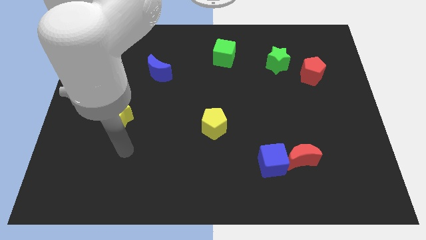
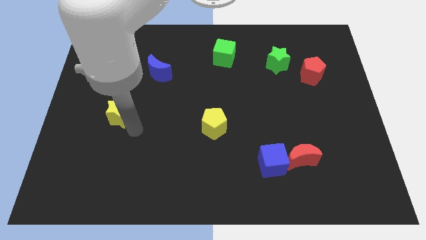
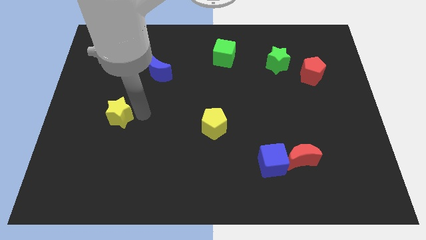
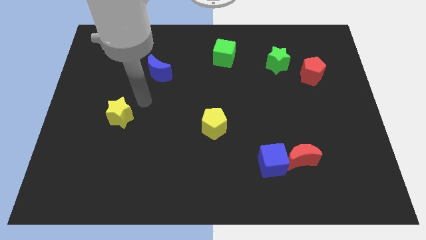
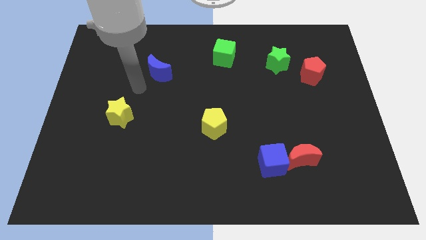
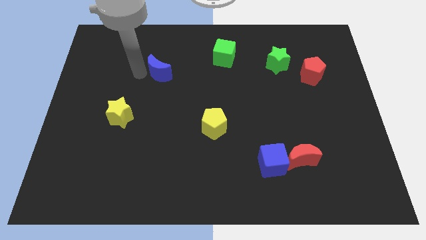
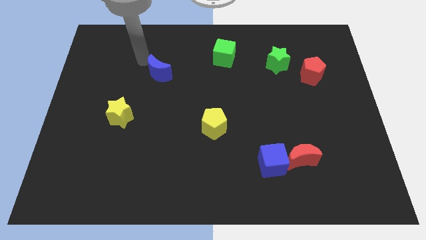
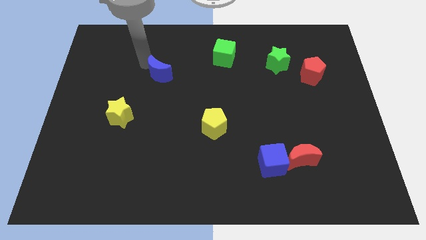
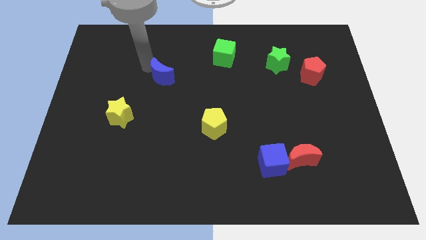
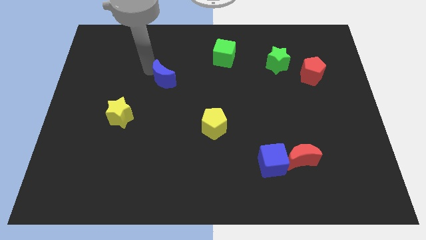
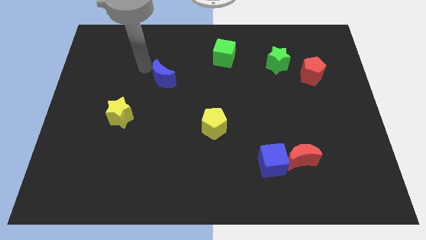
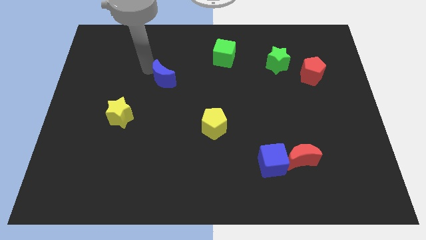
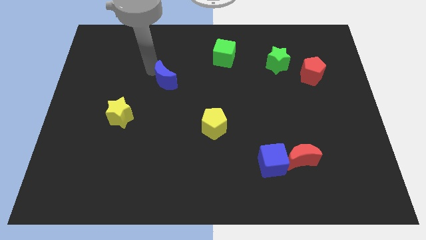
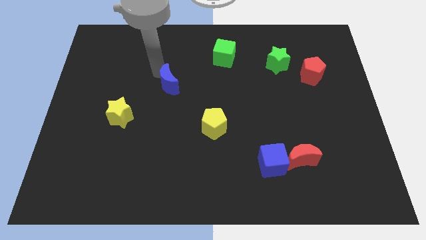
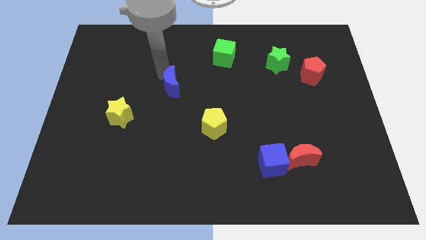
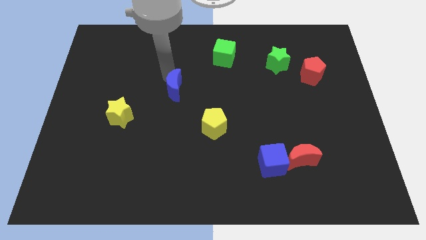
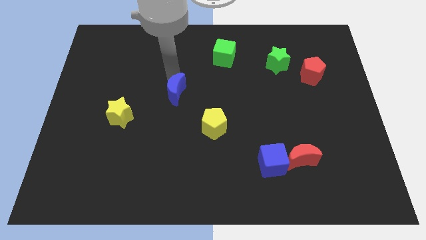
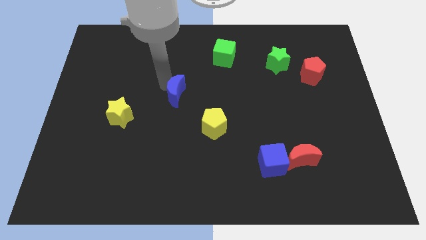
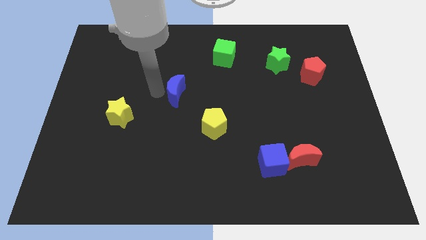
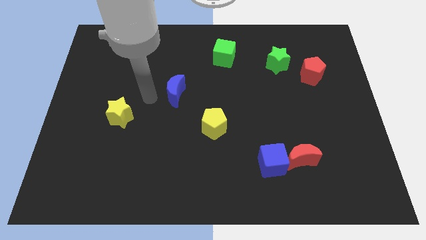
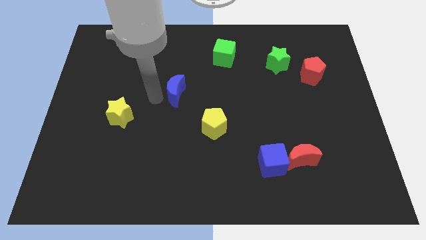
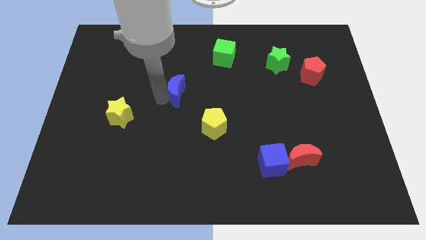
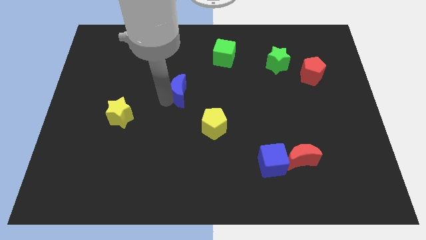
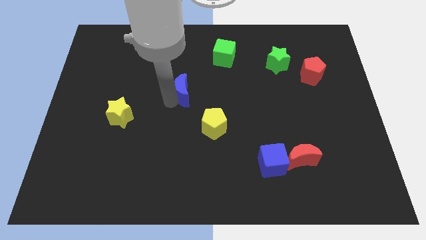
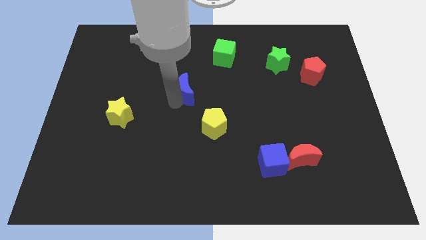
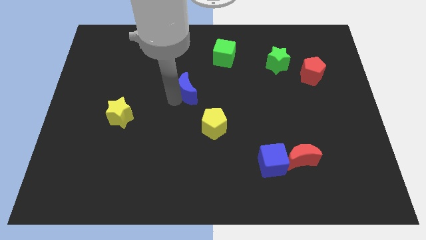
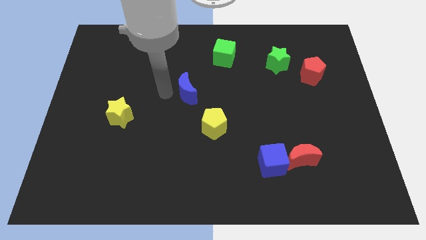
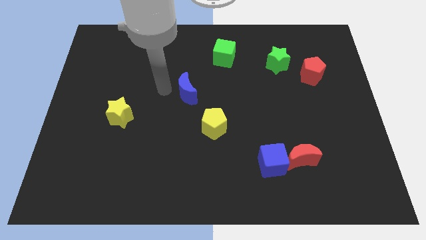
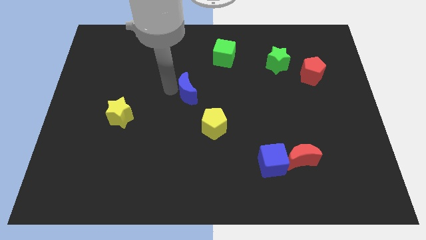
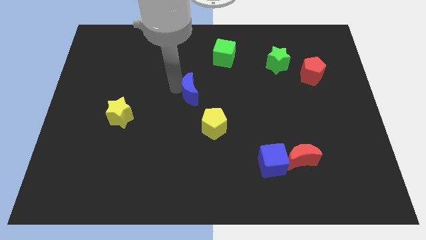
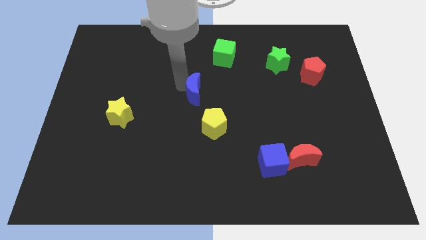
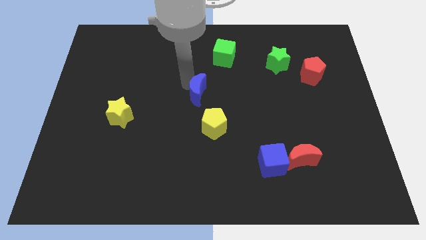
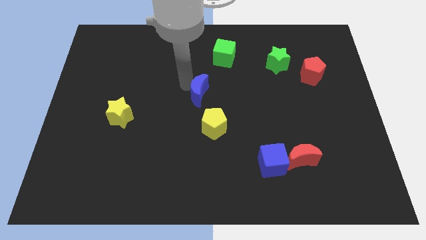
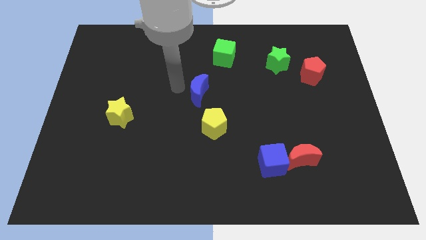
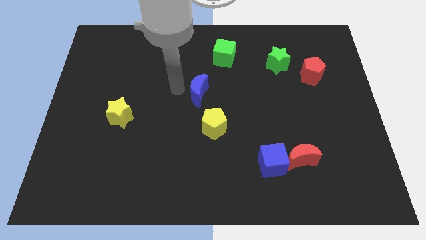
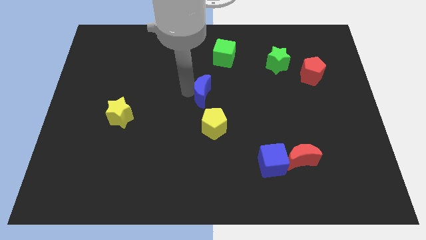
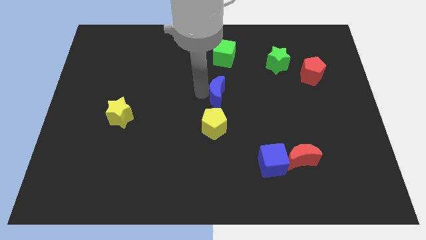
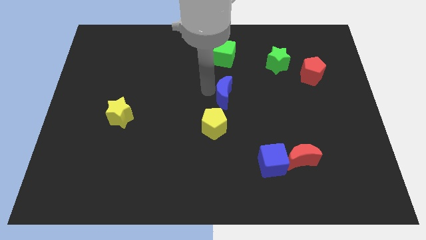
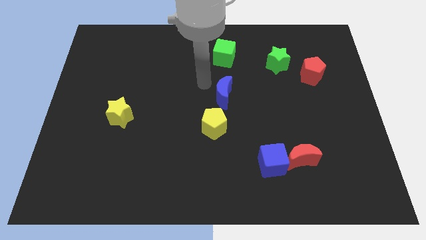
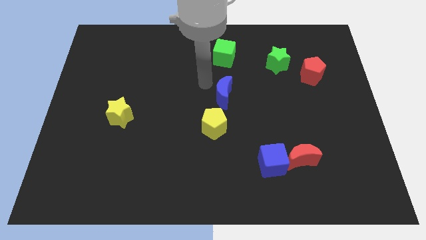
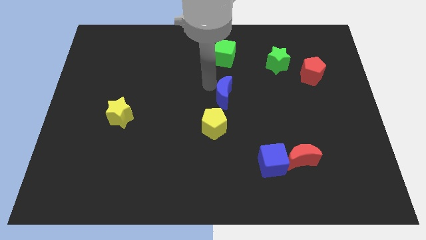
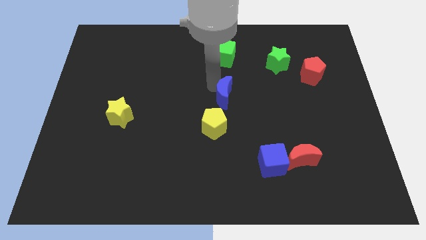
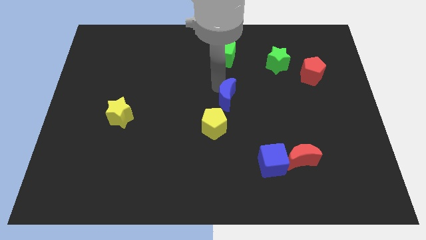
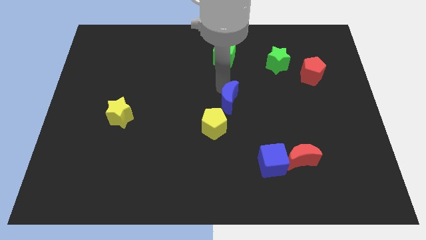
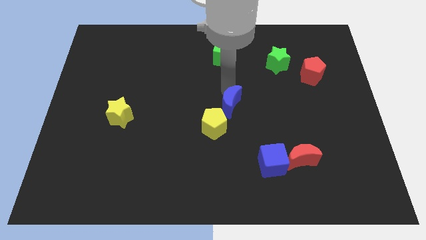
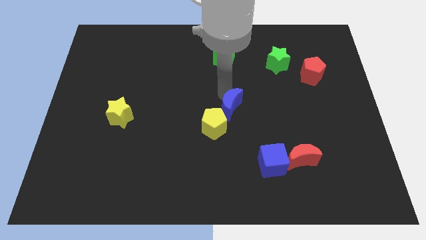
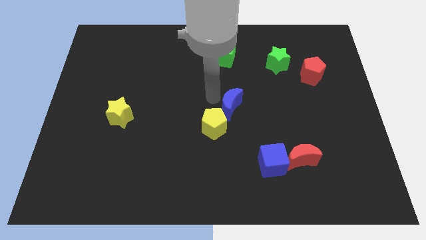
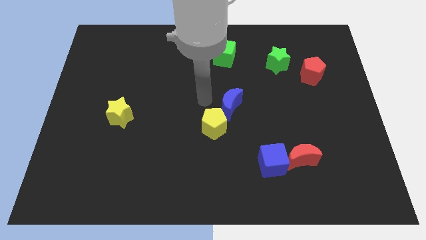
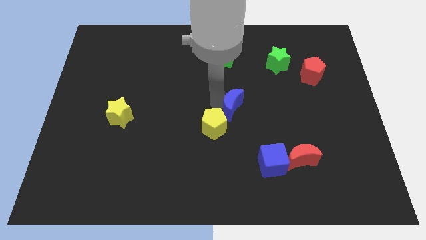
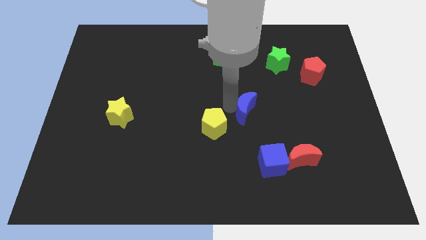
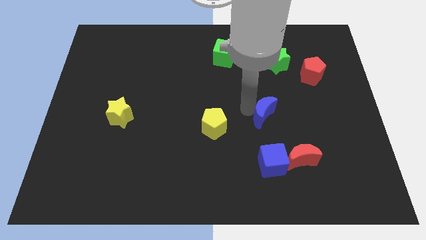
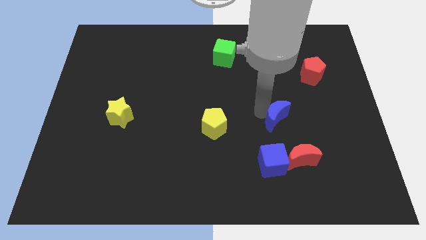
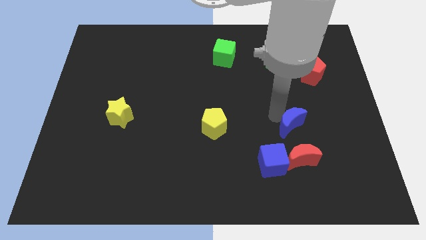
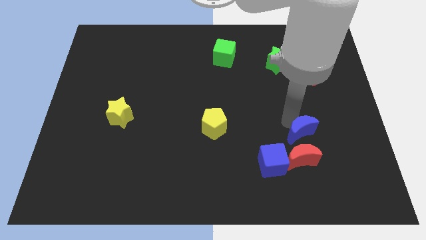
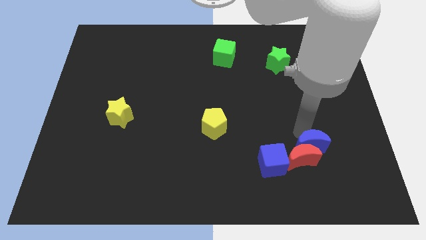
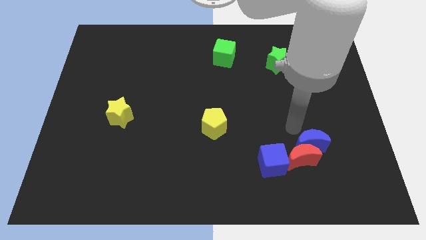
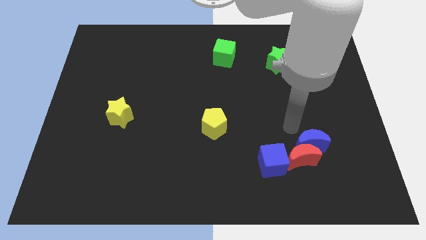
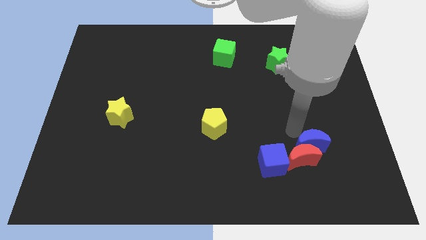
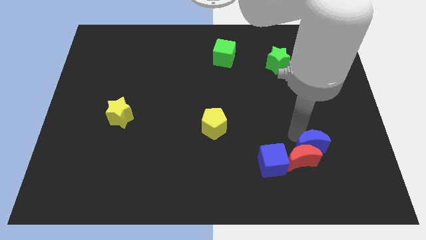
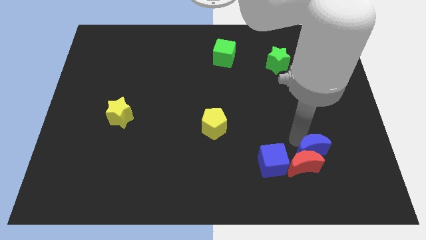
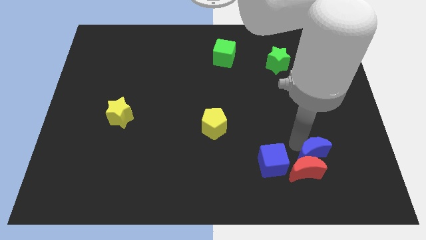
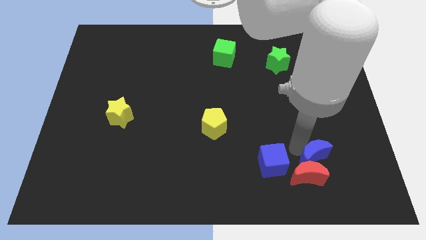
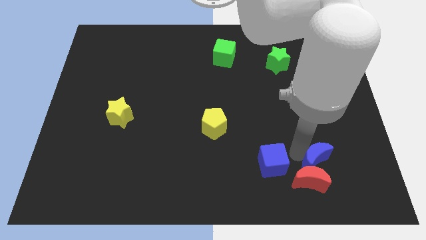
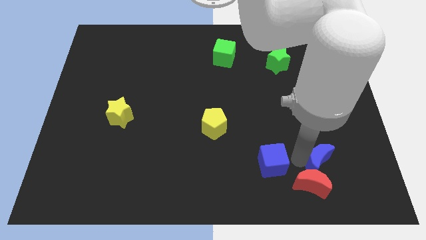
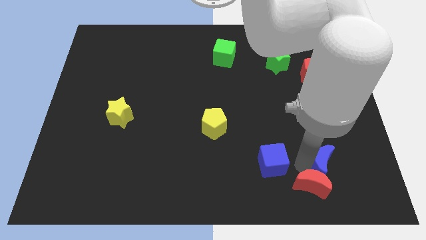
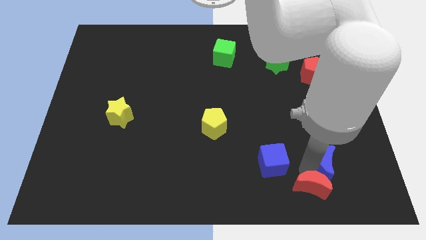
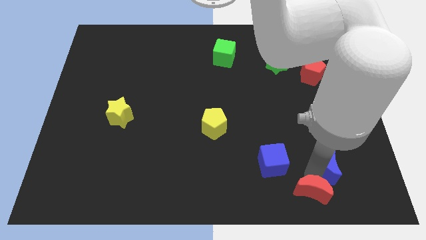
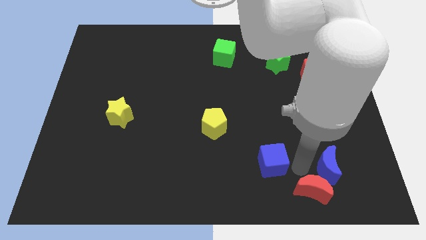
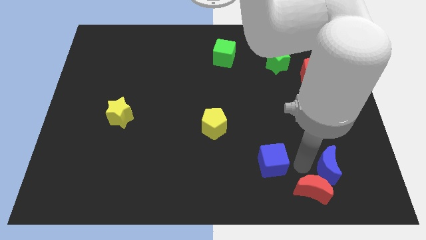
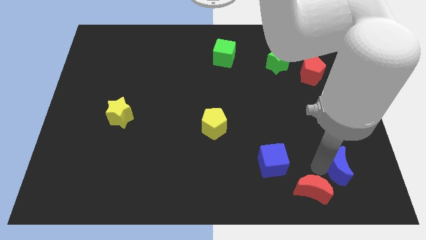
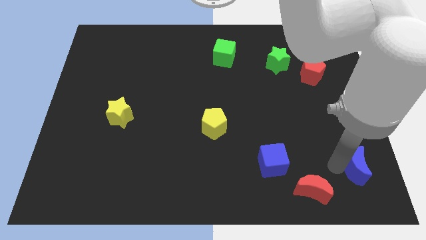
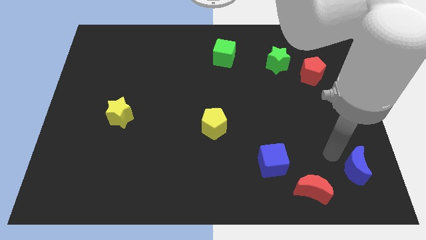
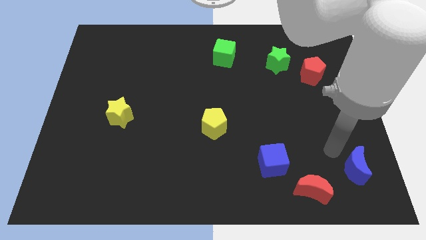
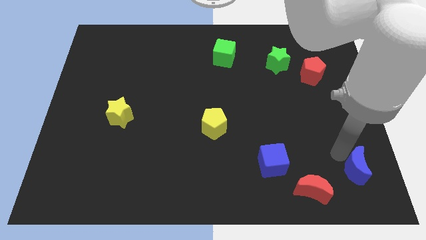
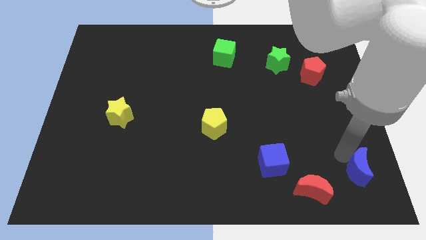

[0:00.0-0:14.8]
push the blue moon to the lower right corner
